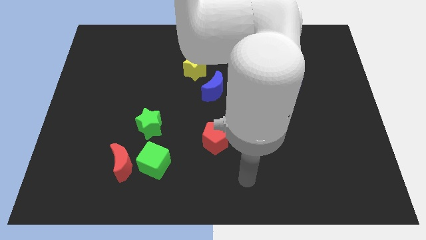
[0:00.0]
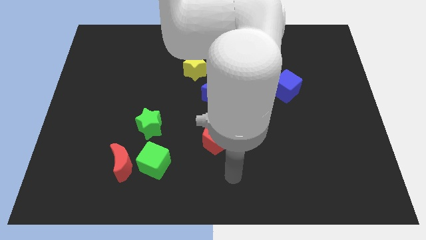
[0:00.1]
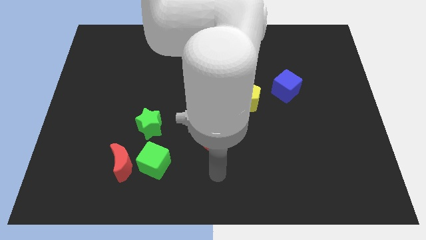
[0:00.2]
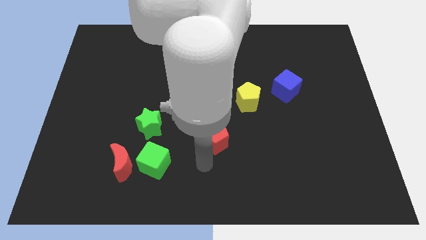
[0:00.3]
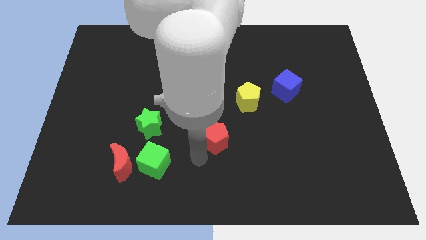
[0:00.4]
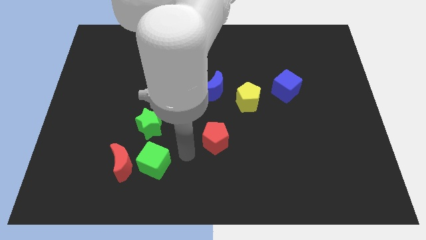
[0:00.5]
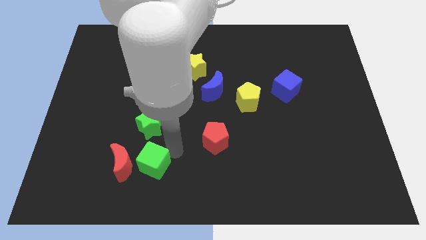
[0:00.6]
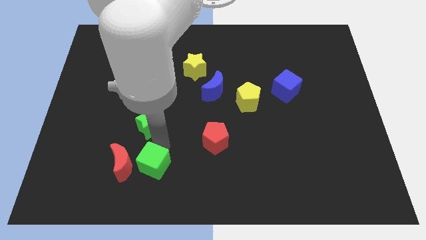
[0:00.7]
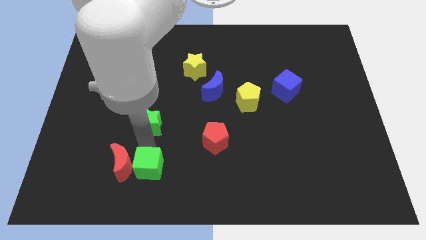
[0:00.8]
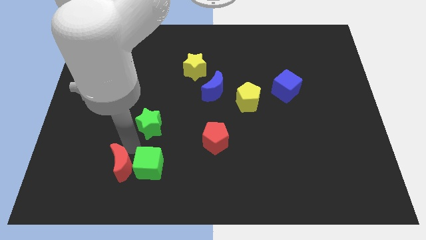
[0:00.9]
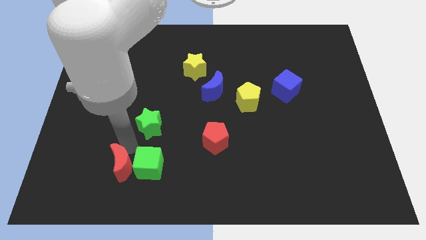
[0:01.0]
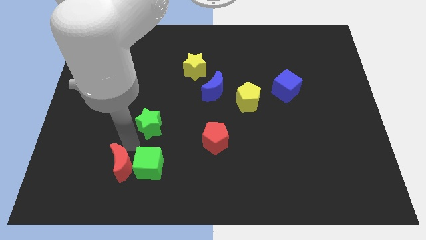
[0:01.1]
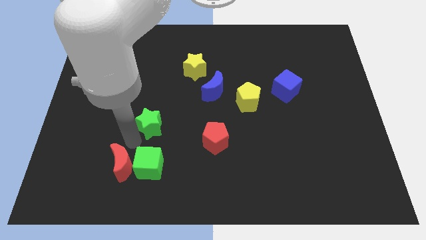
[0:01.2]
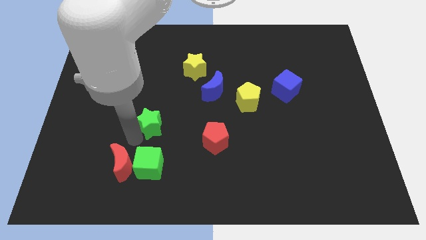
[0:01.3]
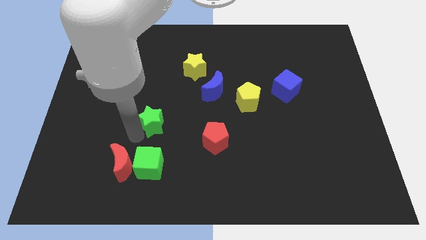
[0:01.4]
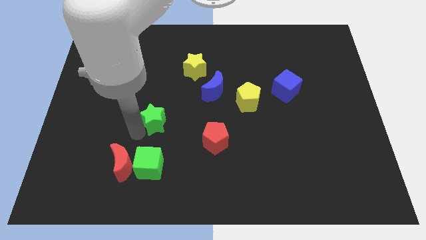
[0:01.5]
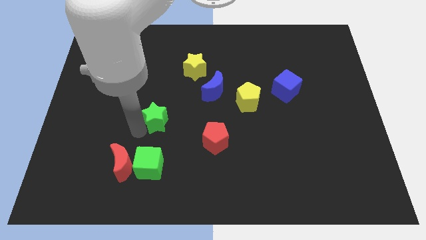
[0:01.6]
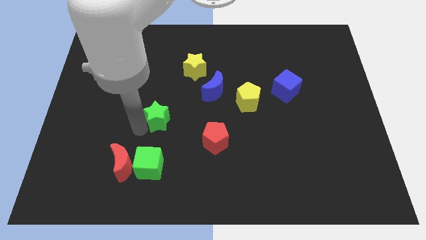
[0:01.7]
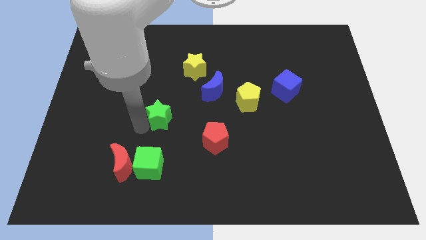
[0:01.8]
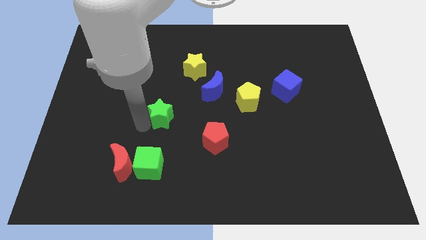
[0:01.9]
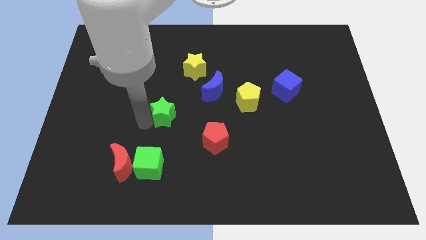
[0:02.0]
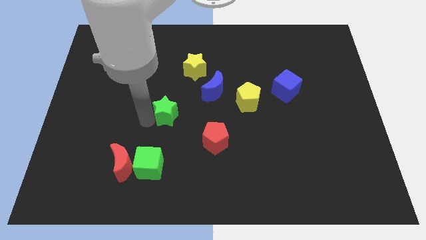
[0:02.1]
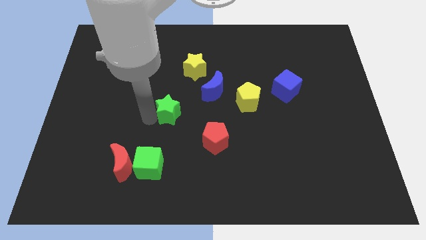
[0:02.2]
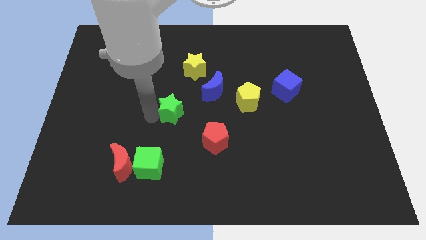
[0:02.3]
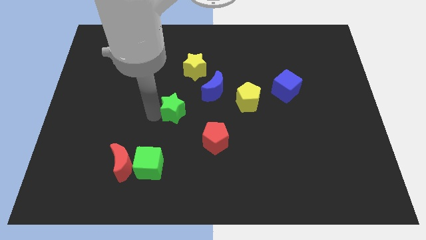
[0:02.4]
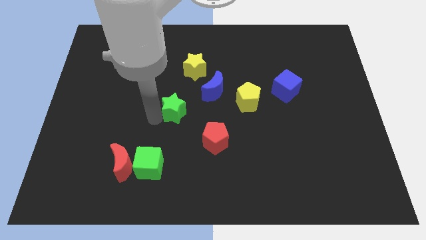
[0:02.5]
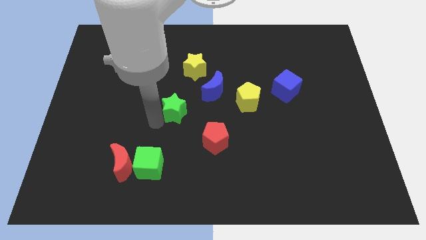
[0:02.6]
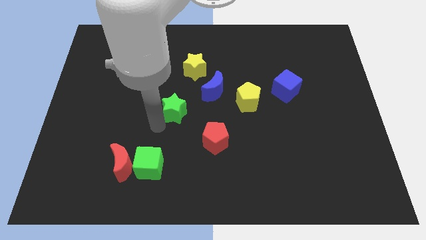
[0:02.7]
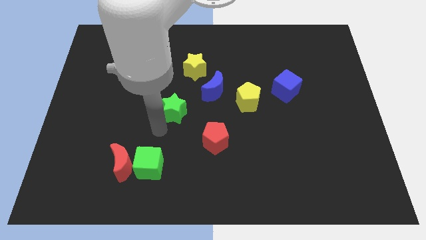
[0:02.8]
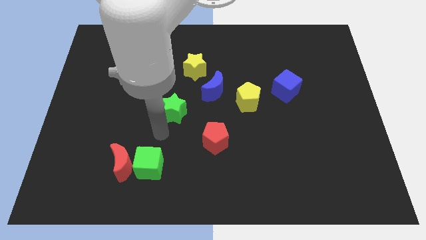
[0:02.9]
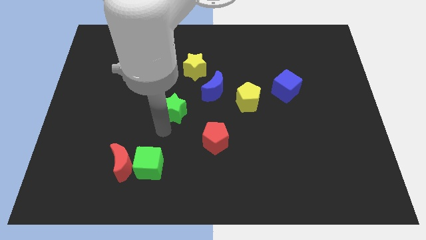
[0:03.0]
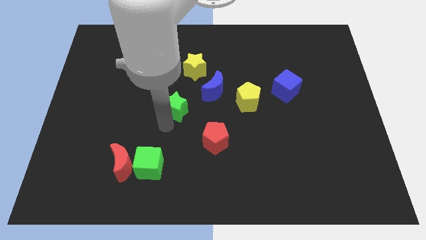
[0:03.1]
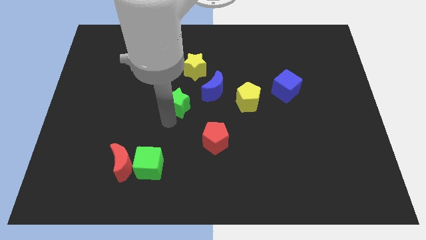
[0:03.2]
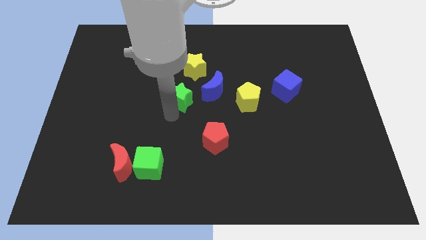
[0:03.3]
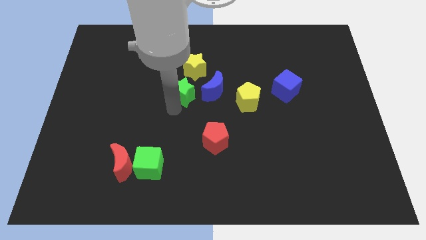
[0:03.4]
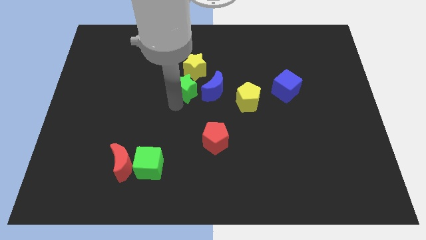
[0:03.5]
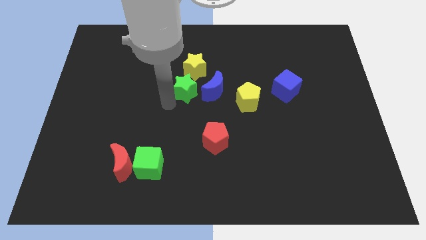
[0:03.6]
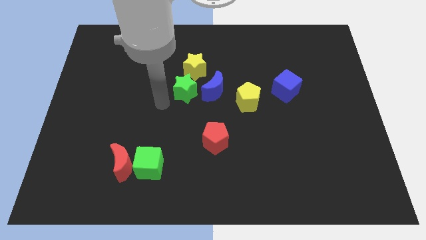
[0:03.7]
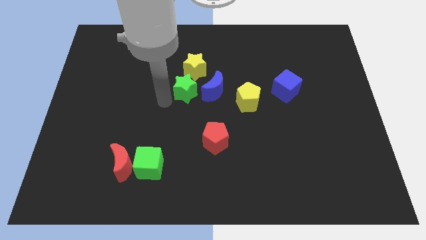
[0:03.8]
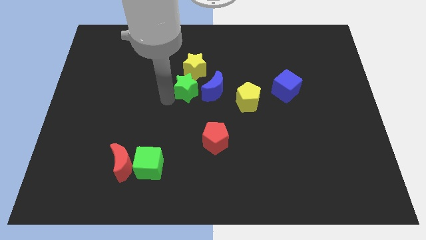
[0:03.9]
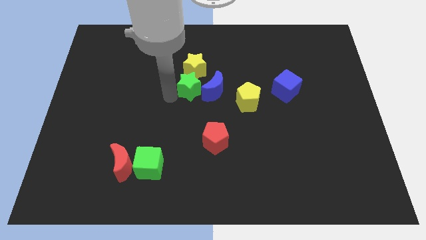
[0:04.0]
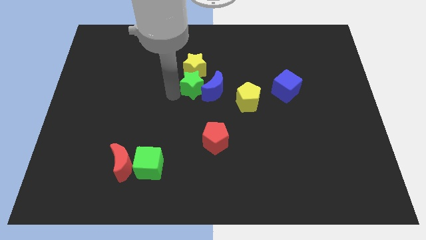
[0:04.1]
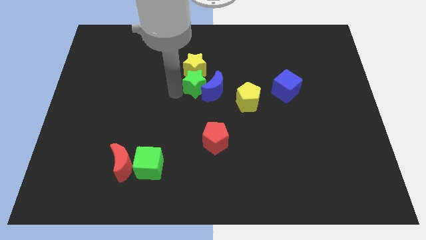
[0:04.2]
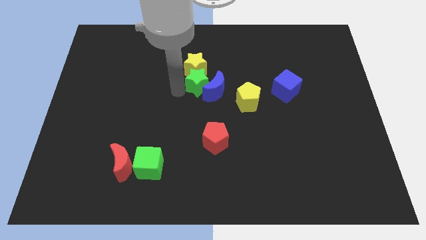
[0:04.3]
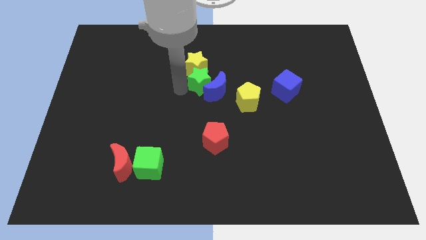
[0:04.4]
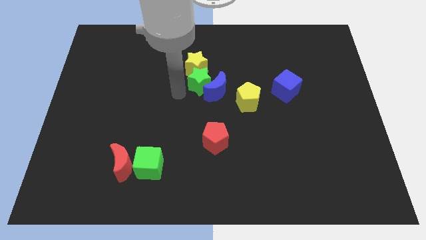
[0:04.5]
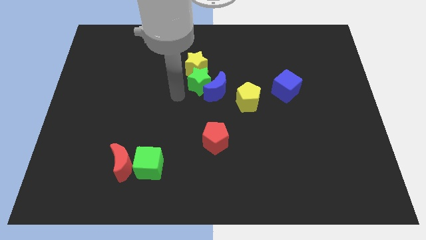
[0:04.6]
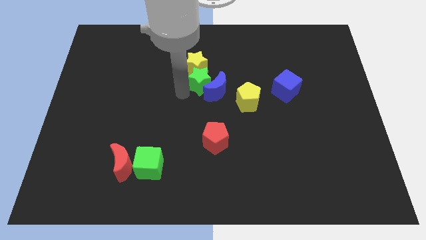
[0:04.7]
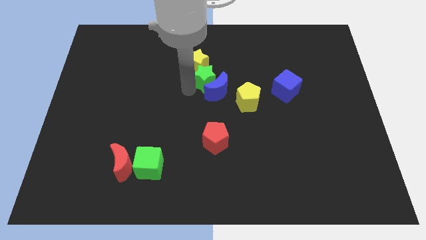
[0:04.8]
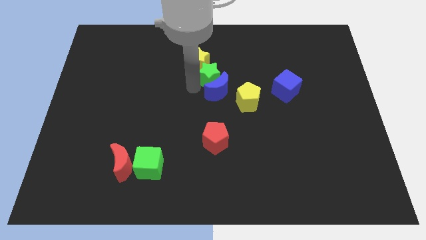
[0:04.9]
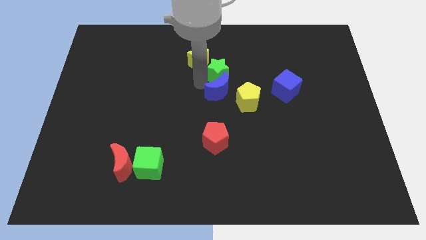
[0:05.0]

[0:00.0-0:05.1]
push the green star just right of the yellow star
